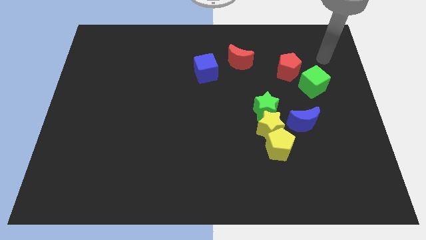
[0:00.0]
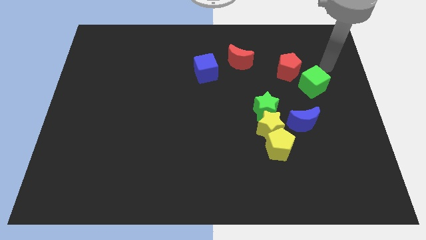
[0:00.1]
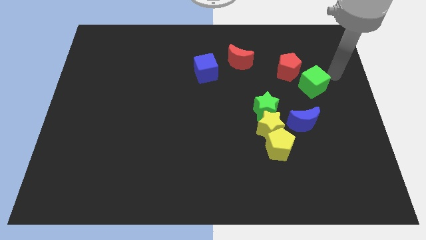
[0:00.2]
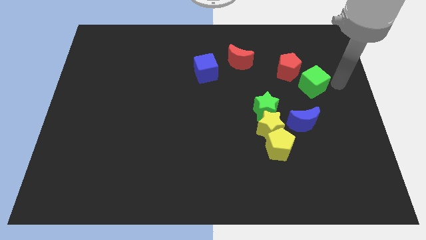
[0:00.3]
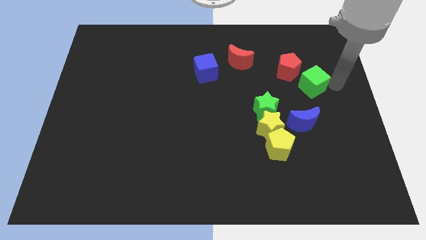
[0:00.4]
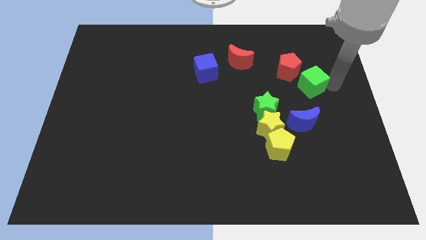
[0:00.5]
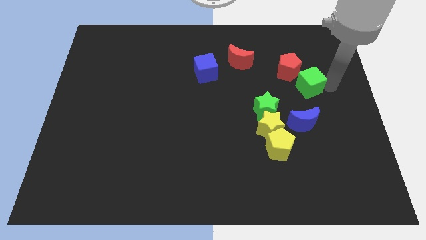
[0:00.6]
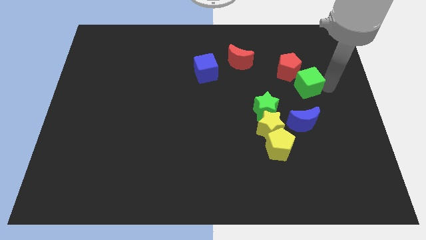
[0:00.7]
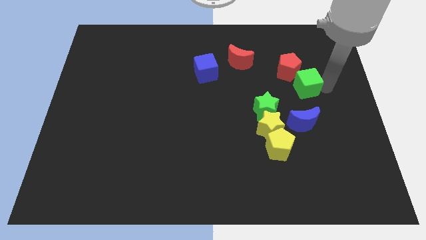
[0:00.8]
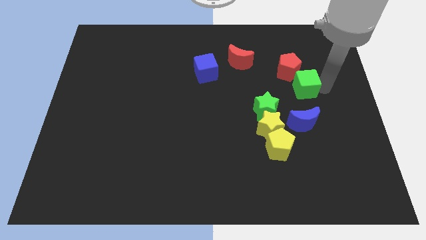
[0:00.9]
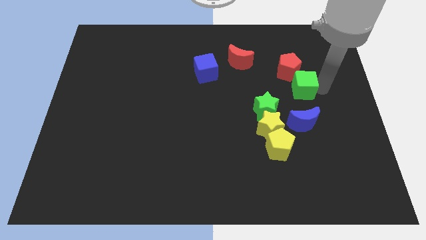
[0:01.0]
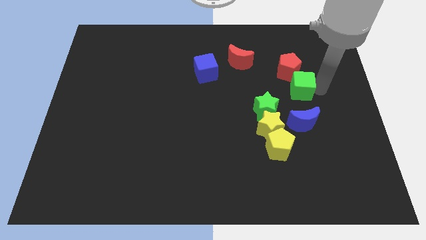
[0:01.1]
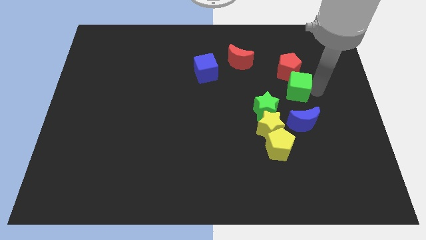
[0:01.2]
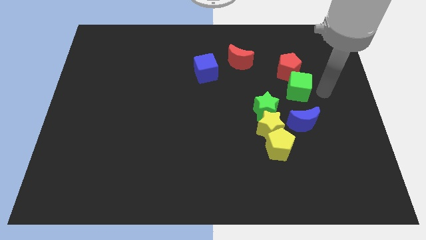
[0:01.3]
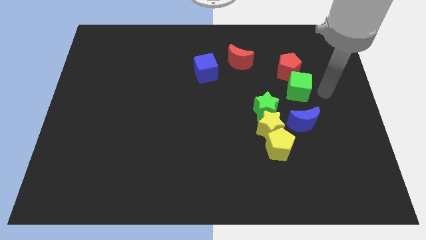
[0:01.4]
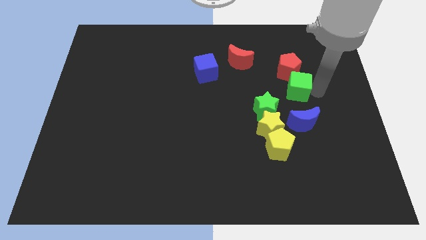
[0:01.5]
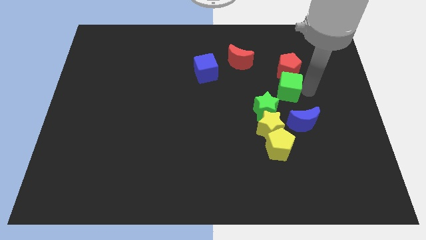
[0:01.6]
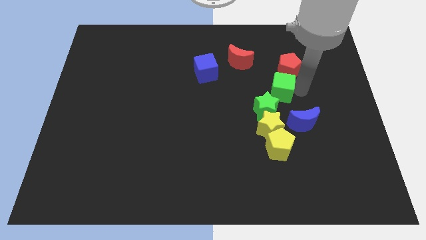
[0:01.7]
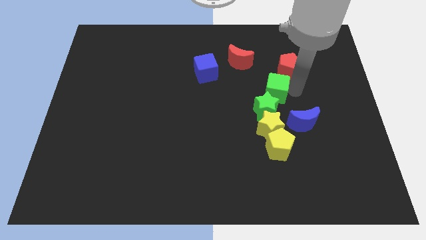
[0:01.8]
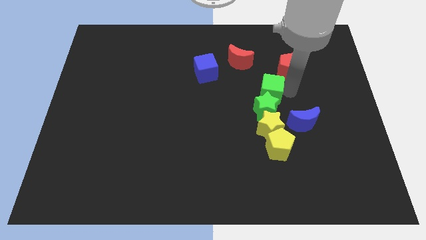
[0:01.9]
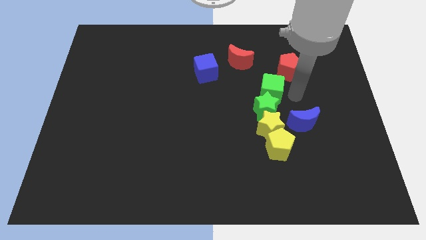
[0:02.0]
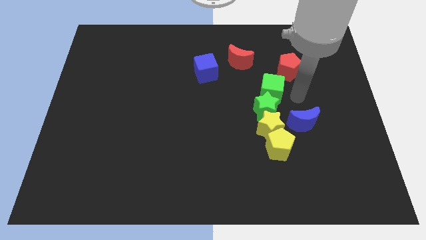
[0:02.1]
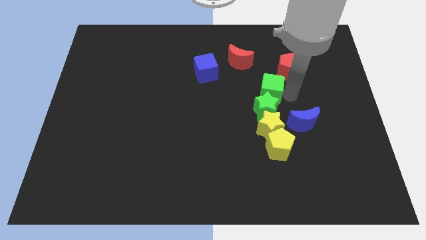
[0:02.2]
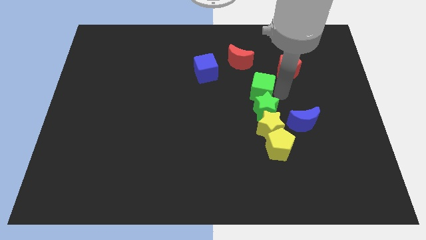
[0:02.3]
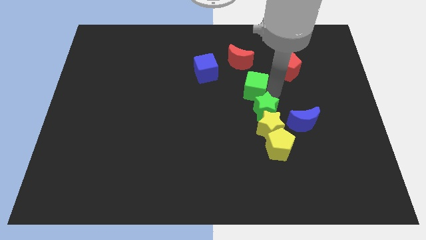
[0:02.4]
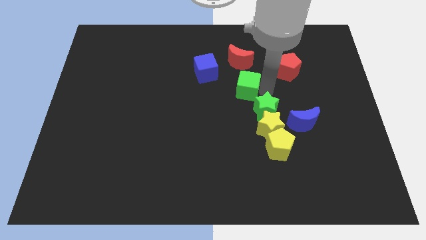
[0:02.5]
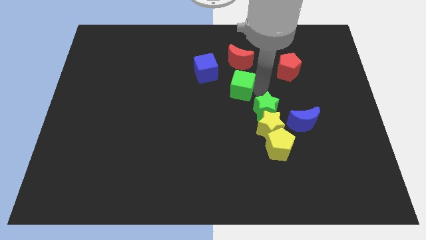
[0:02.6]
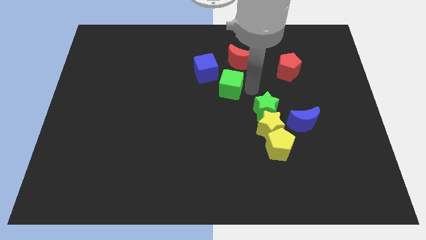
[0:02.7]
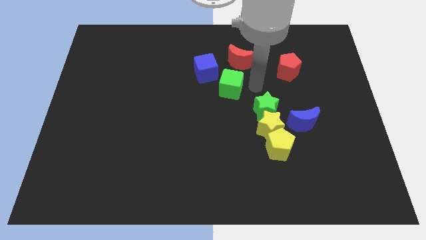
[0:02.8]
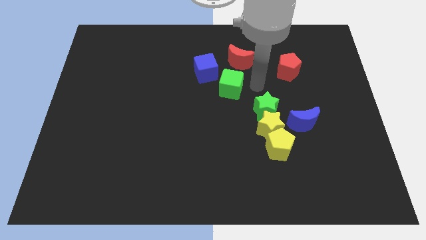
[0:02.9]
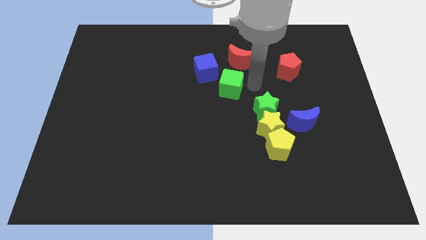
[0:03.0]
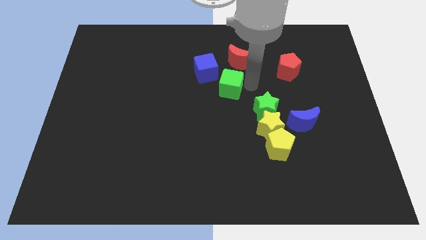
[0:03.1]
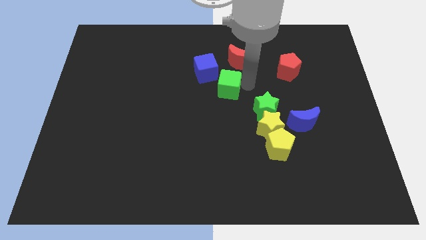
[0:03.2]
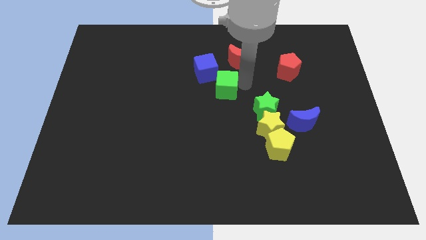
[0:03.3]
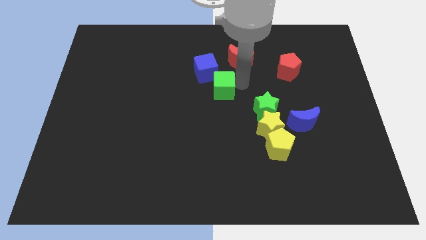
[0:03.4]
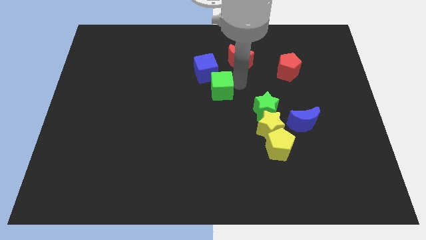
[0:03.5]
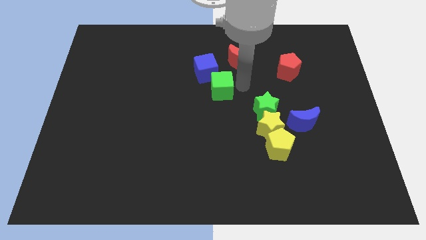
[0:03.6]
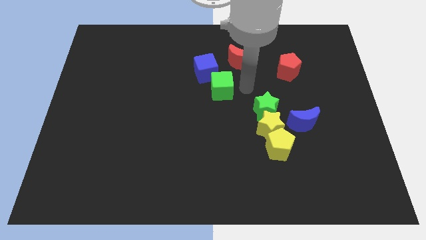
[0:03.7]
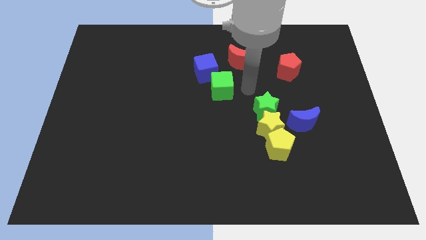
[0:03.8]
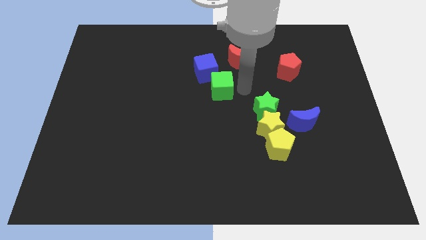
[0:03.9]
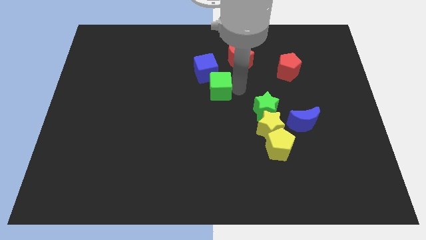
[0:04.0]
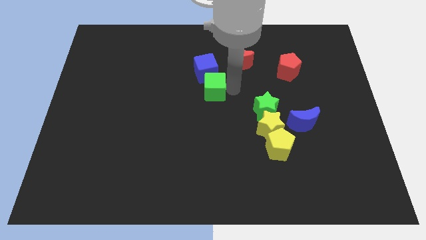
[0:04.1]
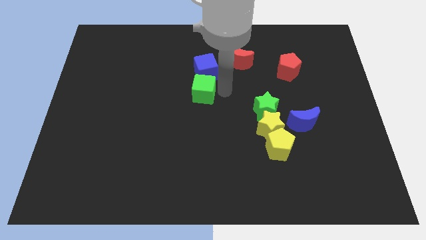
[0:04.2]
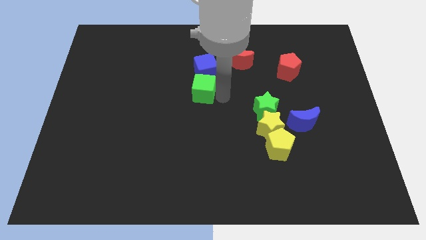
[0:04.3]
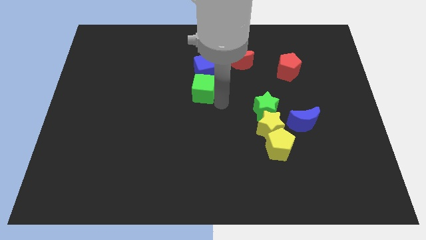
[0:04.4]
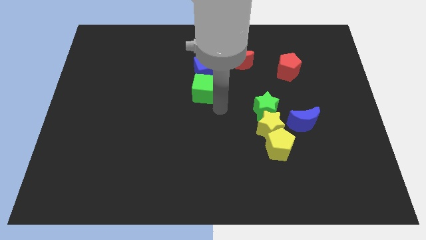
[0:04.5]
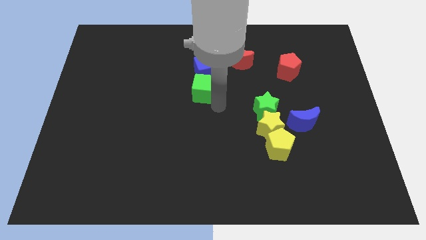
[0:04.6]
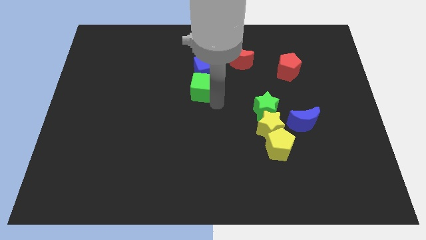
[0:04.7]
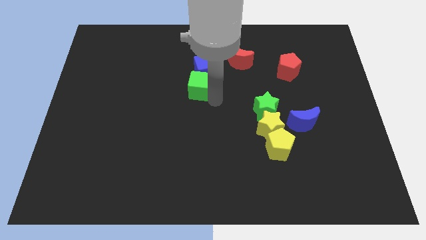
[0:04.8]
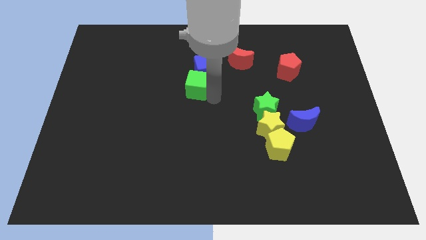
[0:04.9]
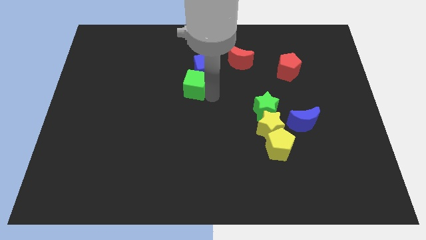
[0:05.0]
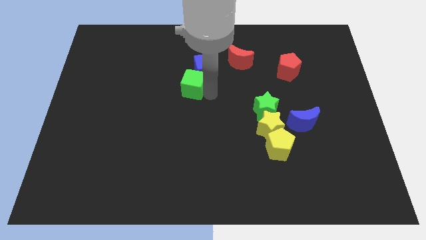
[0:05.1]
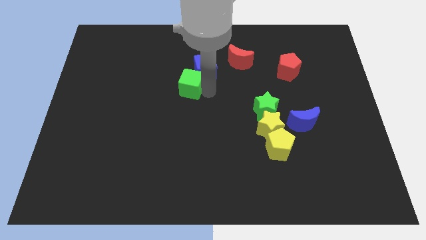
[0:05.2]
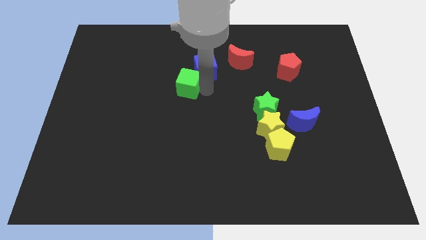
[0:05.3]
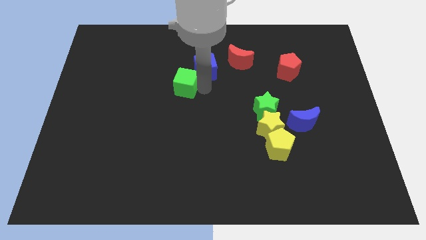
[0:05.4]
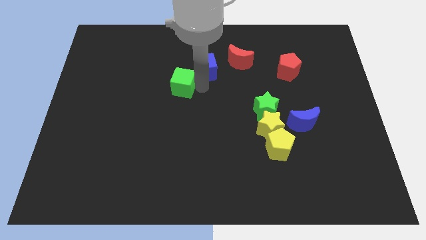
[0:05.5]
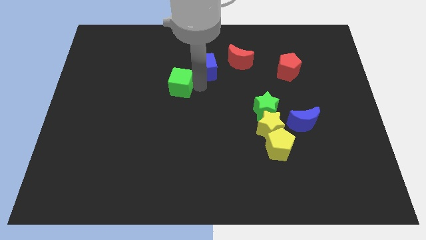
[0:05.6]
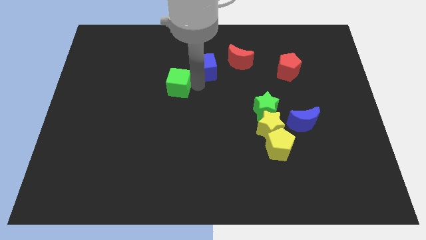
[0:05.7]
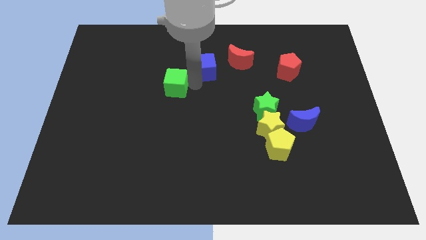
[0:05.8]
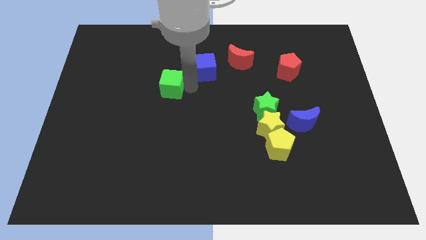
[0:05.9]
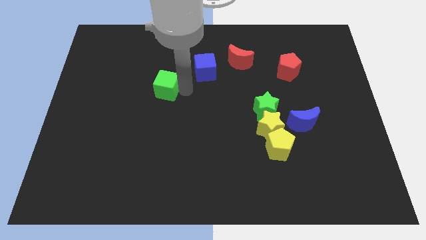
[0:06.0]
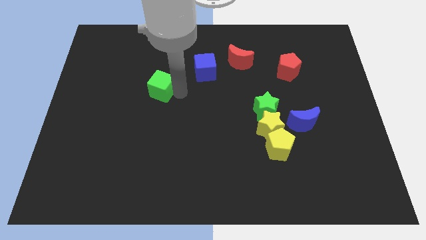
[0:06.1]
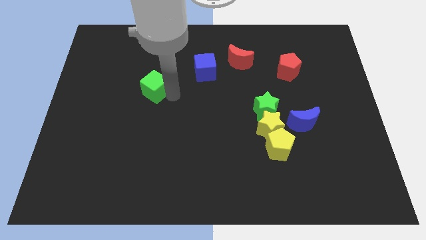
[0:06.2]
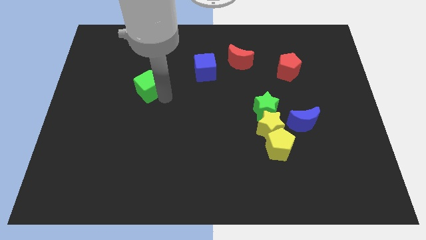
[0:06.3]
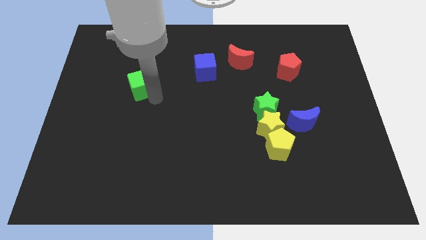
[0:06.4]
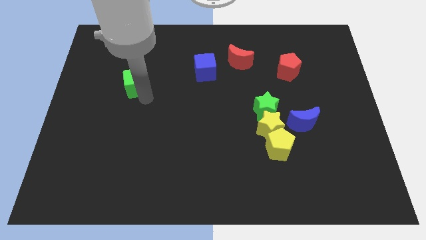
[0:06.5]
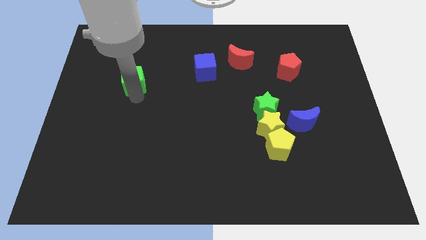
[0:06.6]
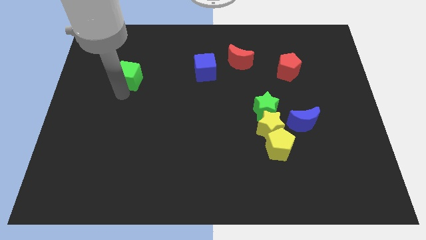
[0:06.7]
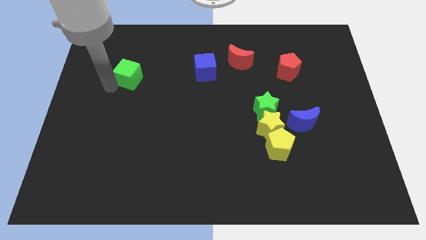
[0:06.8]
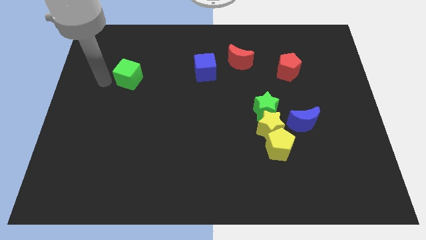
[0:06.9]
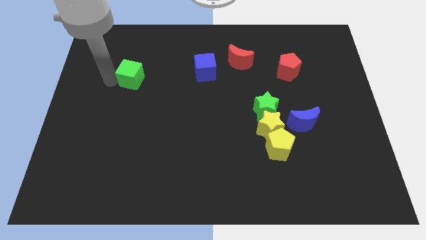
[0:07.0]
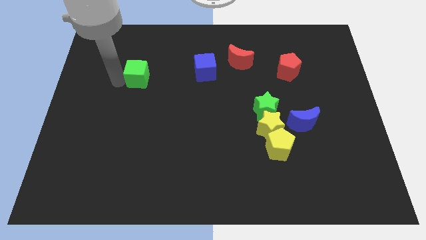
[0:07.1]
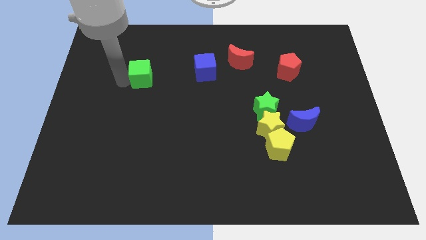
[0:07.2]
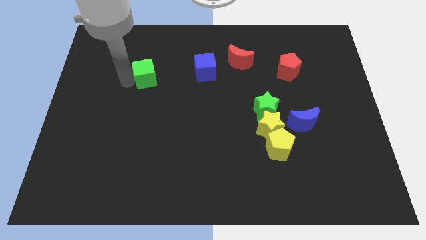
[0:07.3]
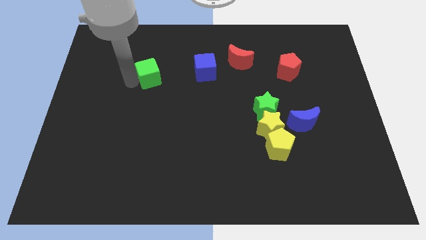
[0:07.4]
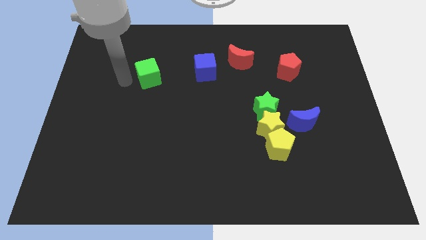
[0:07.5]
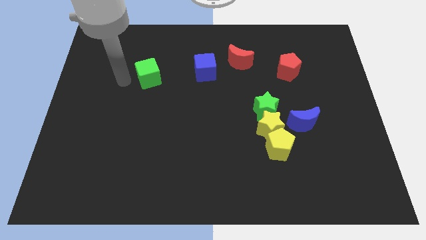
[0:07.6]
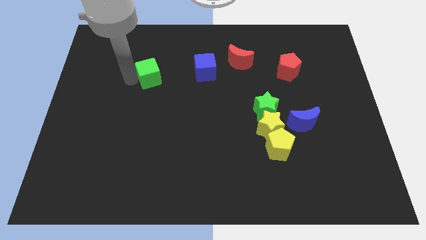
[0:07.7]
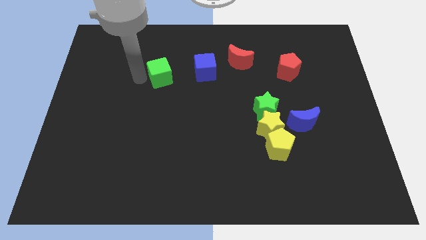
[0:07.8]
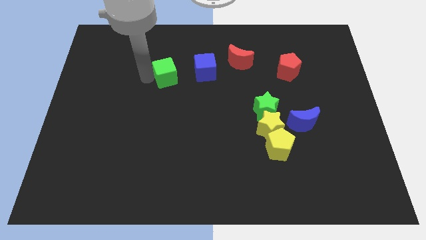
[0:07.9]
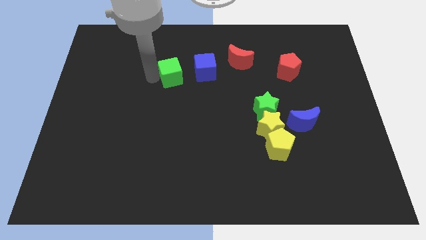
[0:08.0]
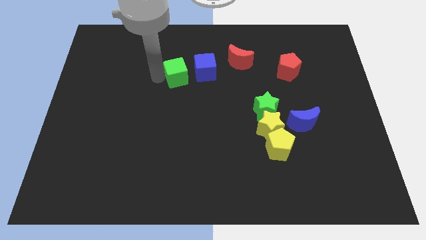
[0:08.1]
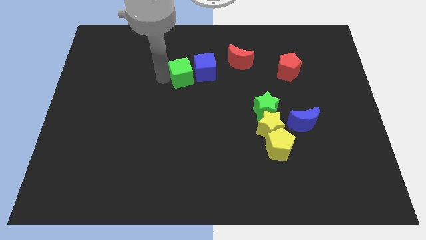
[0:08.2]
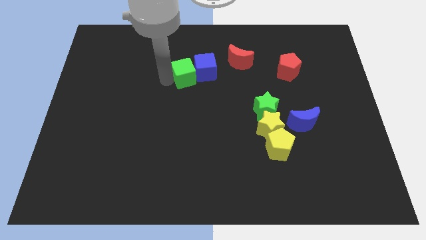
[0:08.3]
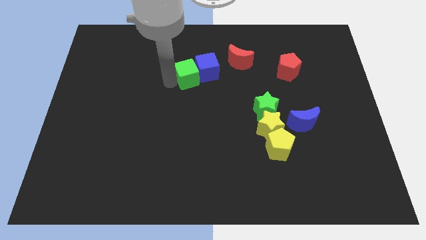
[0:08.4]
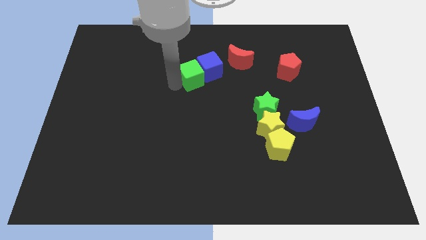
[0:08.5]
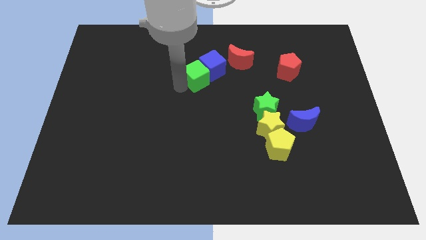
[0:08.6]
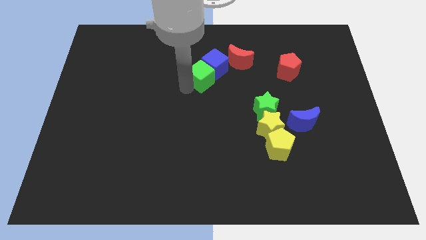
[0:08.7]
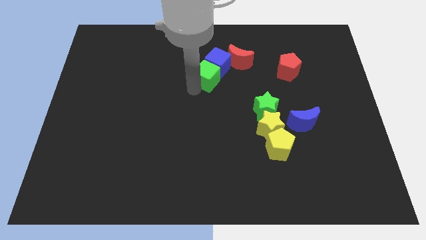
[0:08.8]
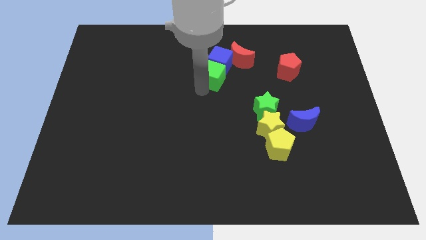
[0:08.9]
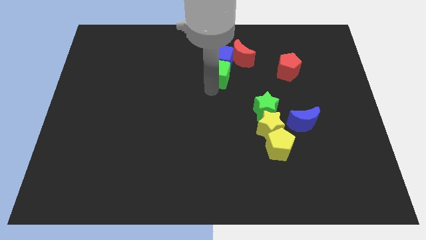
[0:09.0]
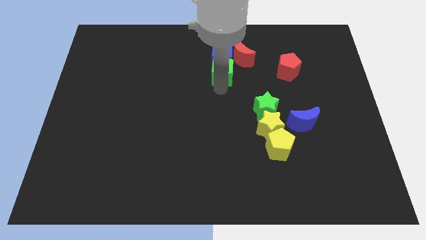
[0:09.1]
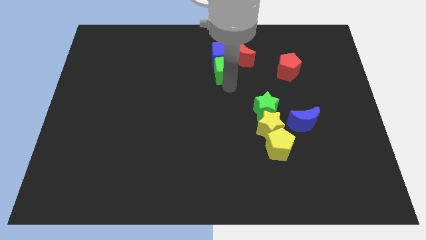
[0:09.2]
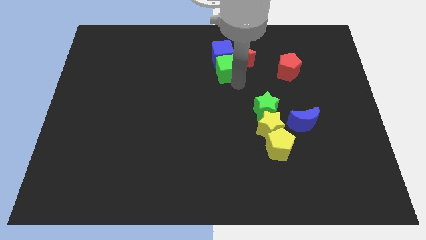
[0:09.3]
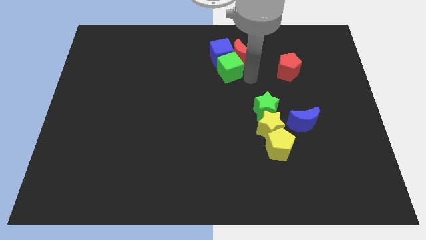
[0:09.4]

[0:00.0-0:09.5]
put the green cube to the left of the red moon
